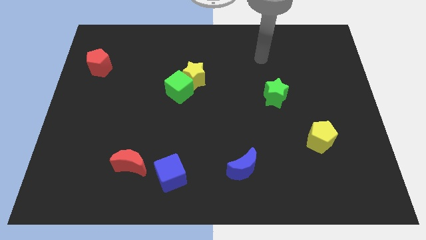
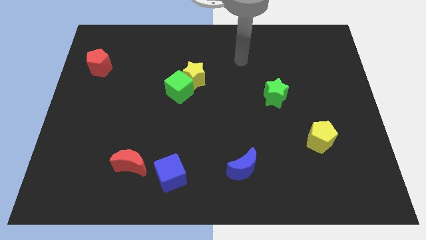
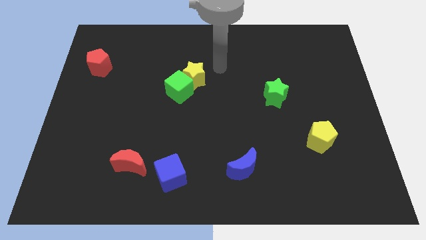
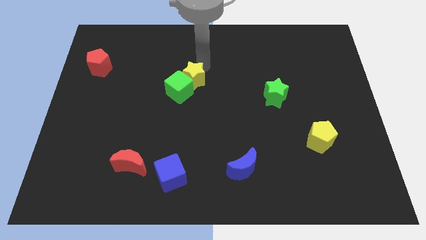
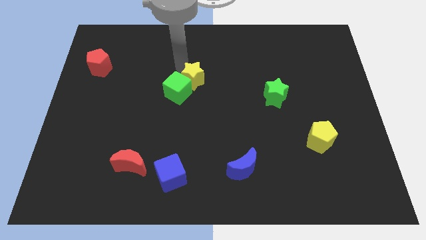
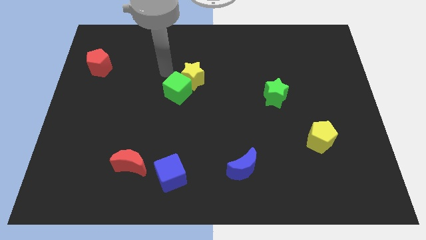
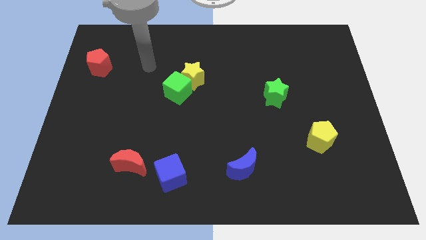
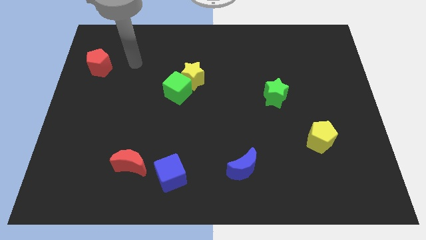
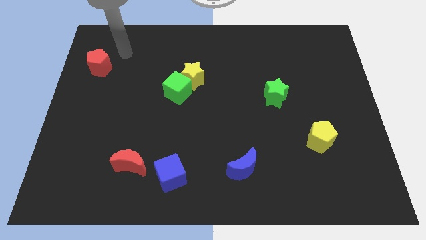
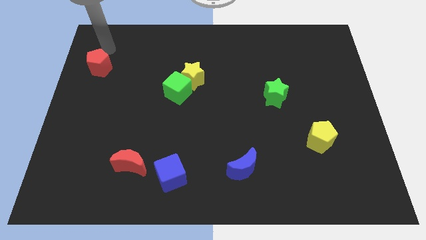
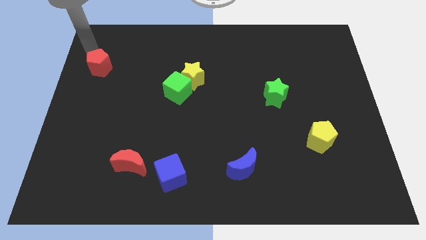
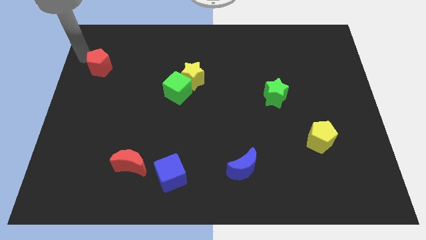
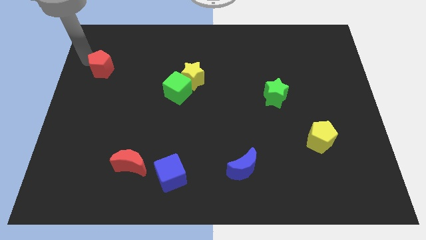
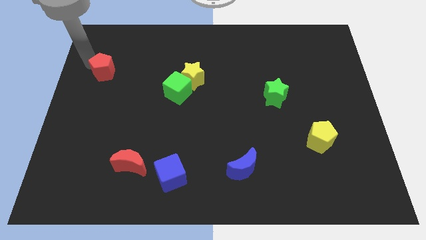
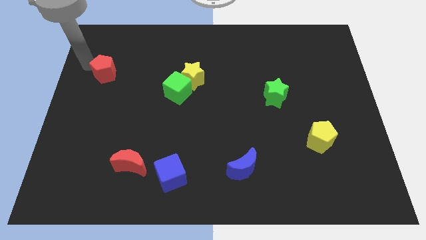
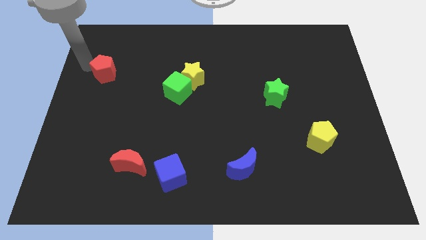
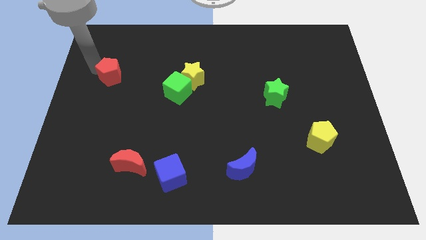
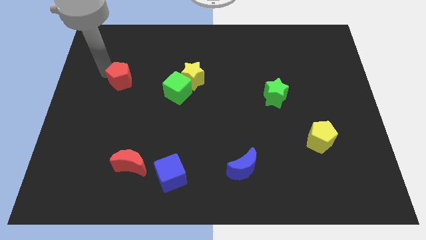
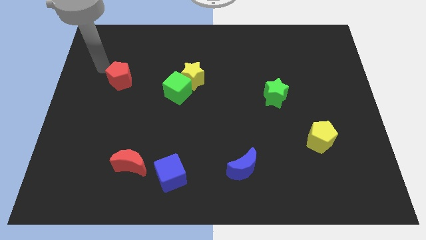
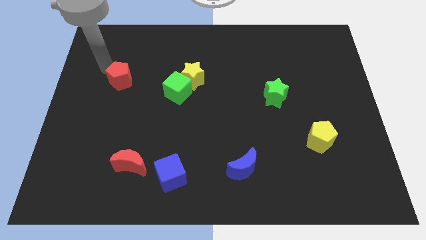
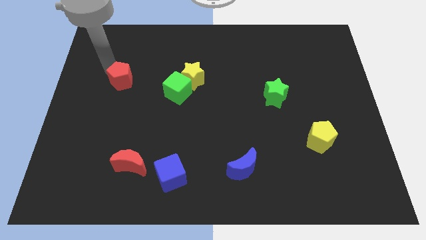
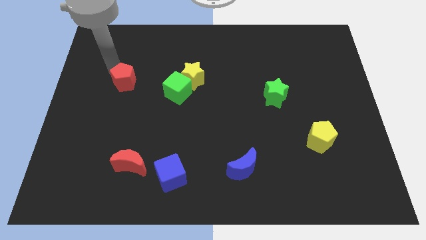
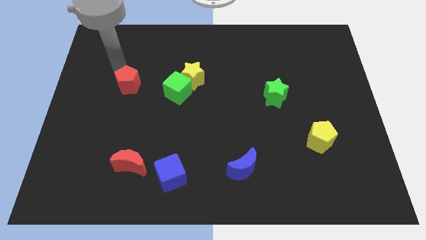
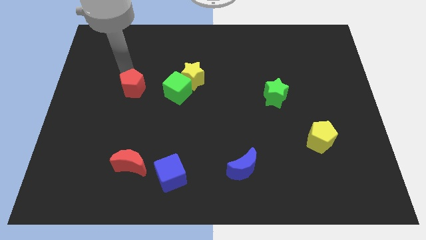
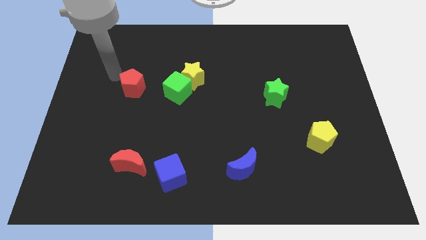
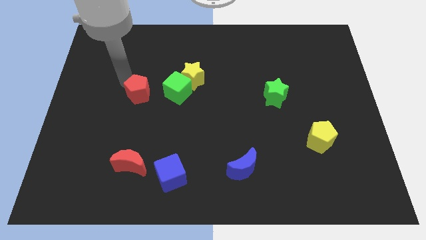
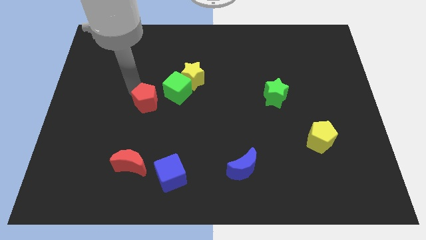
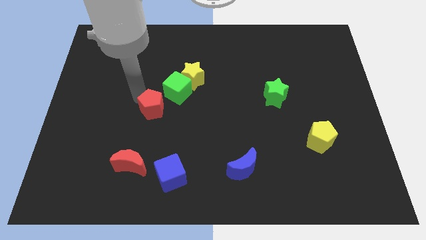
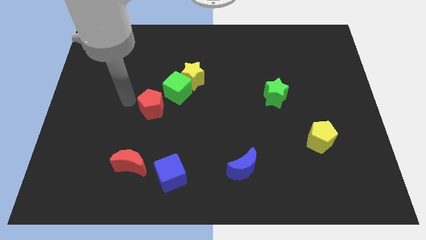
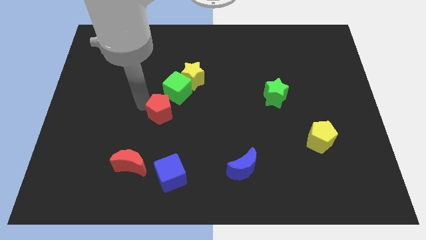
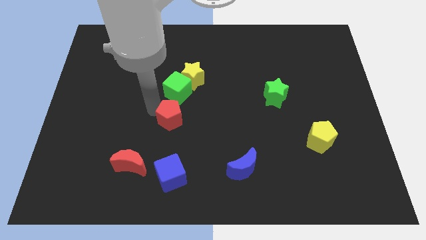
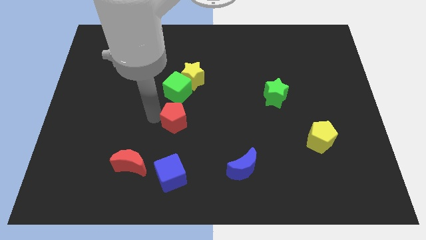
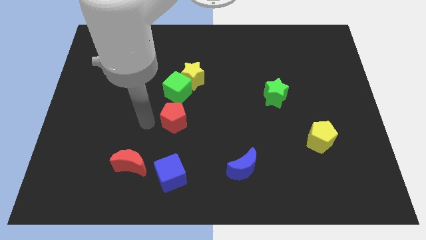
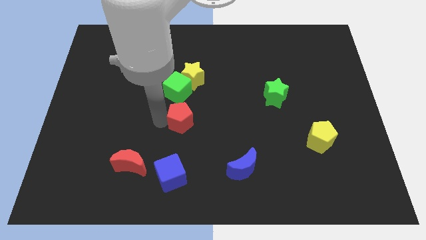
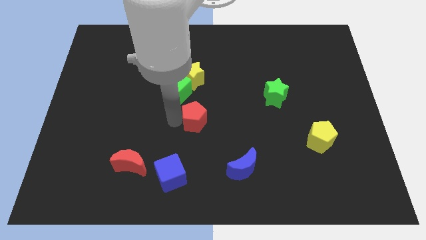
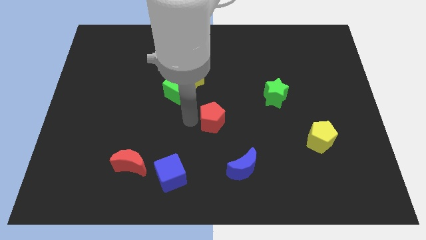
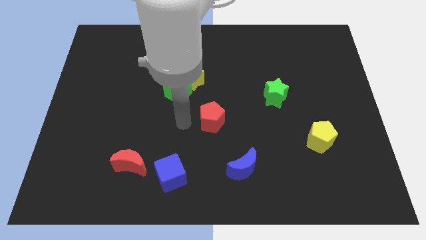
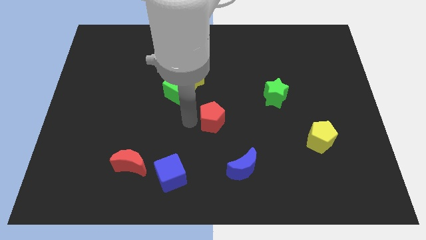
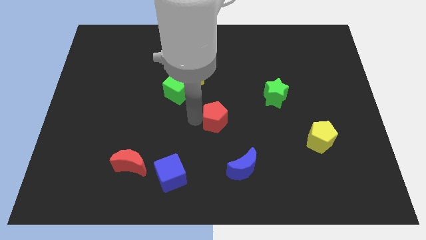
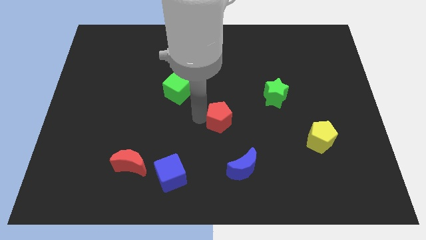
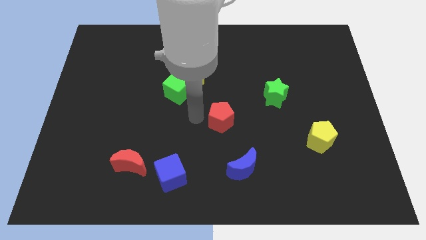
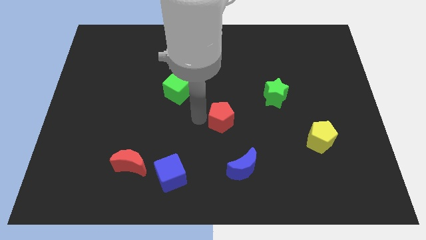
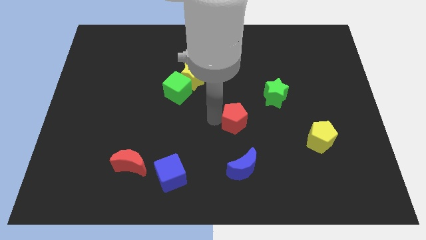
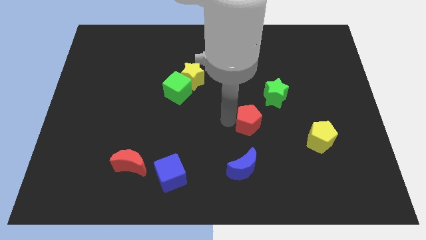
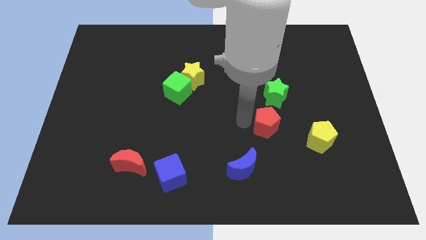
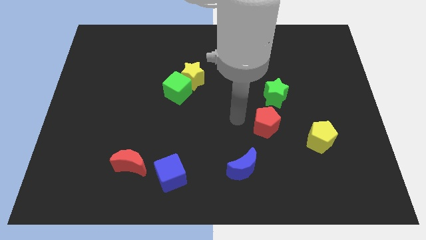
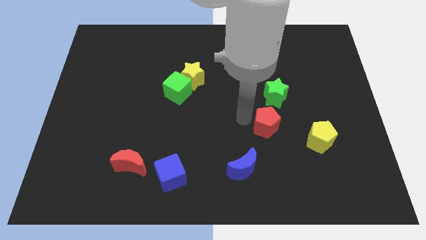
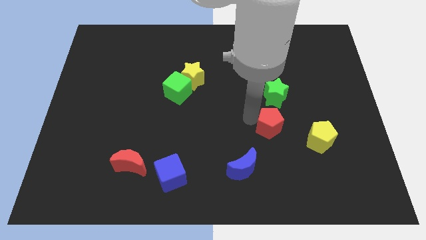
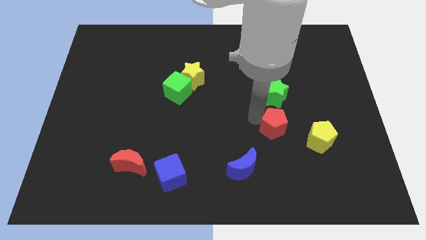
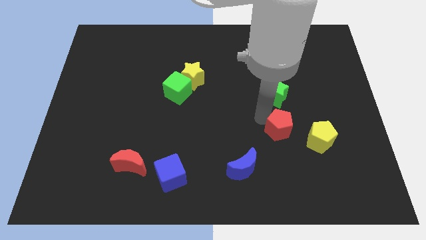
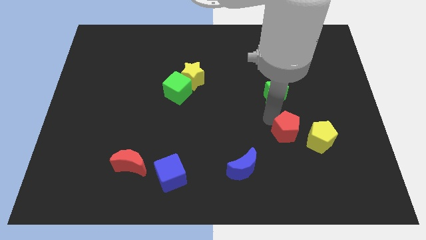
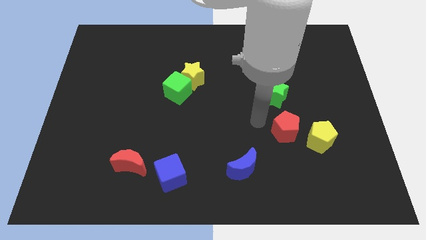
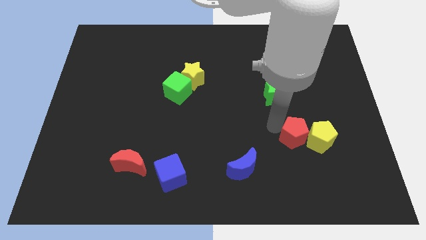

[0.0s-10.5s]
push the red pentagon to the yellow pentagon

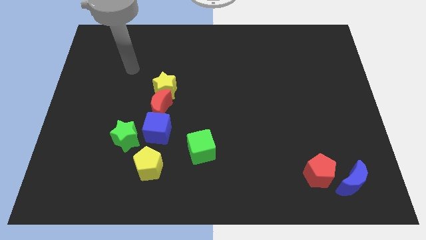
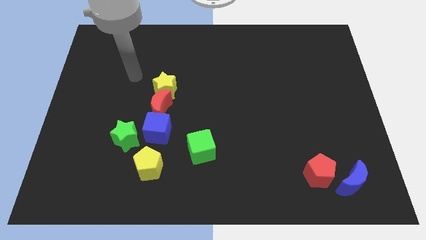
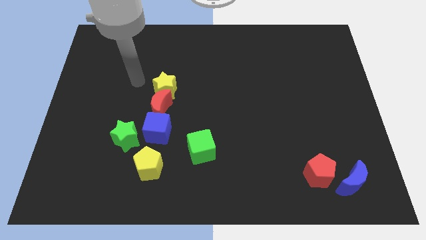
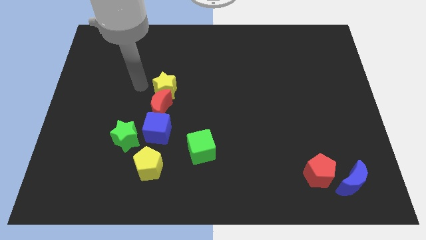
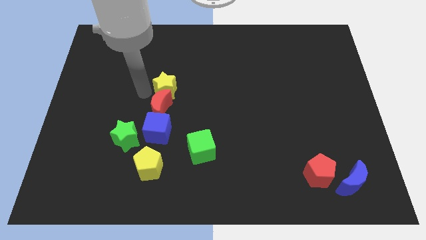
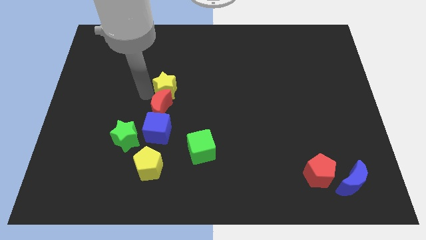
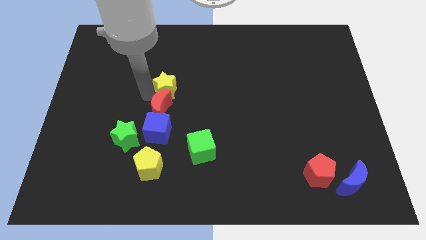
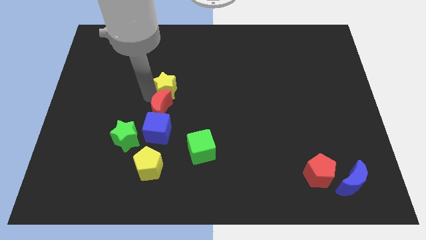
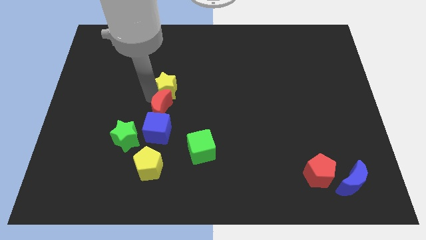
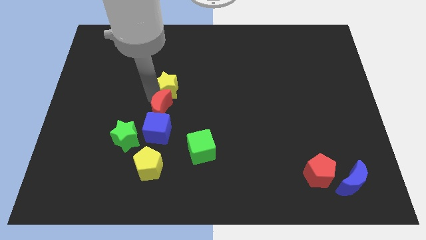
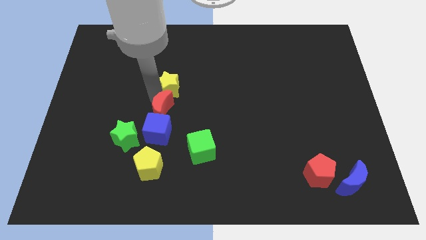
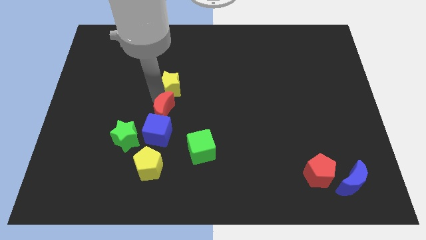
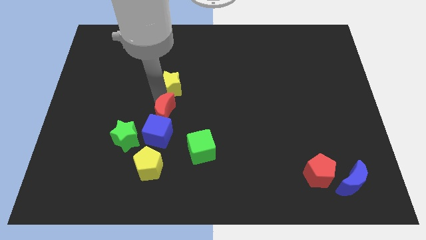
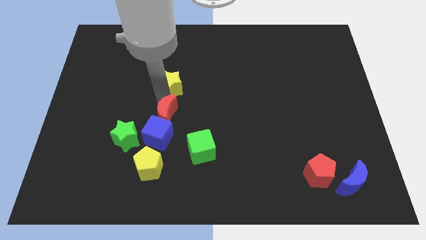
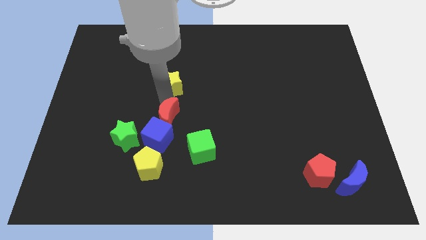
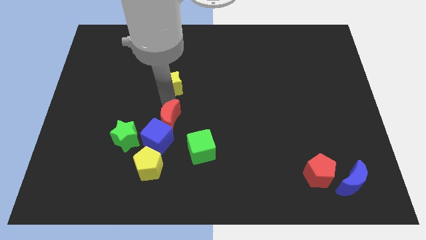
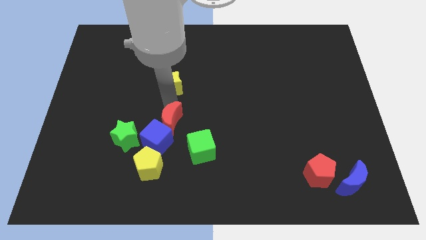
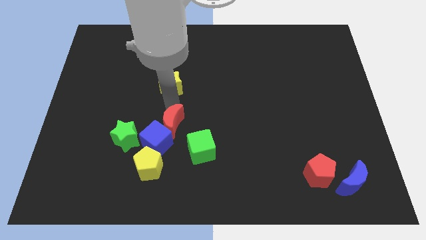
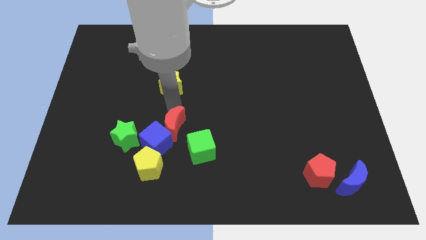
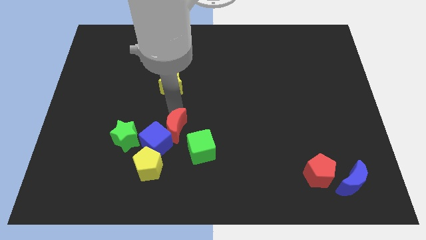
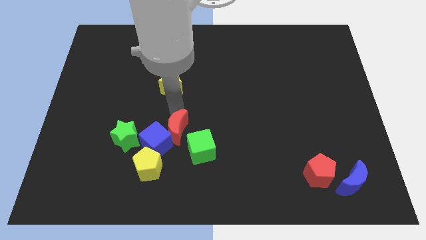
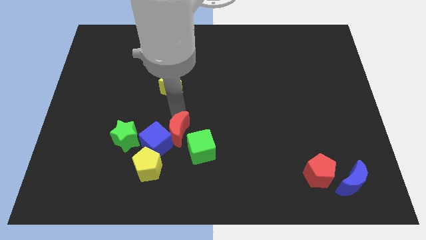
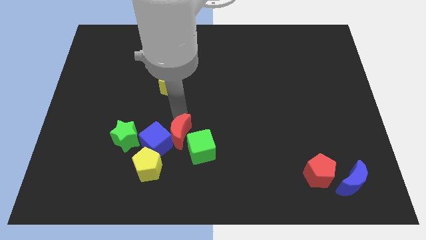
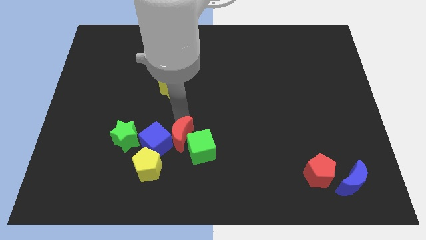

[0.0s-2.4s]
slide the red moon close to the green cube
